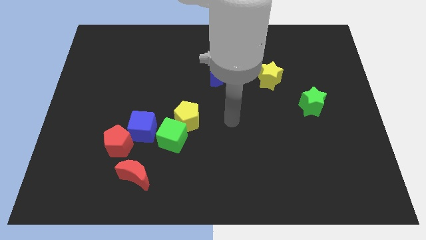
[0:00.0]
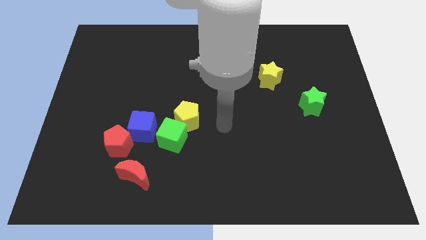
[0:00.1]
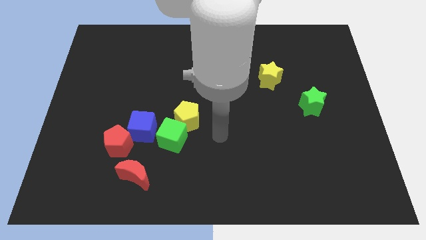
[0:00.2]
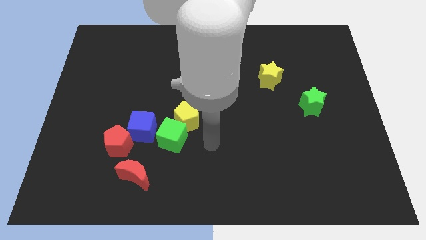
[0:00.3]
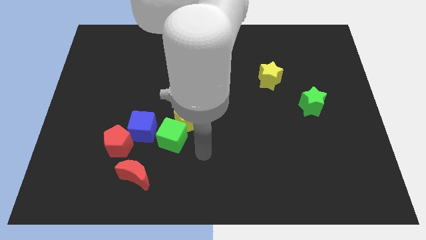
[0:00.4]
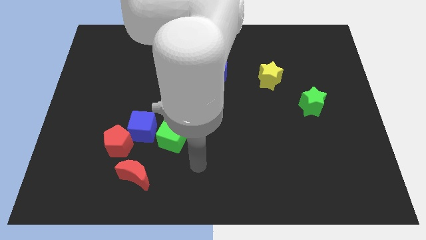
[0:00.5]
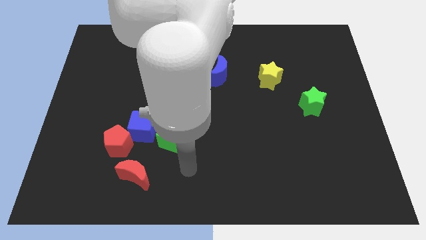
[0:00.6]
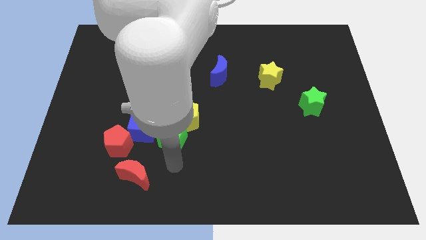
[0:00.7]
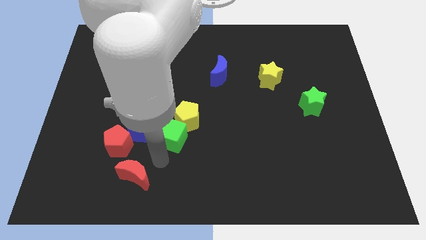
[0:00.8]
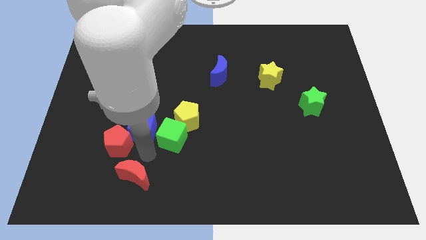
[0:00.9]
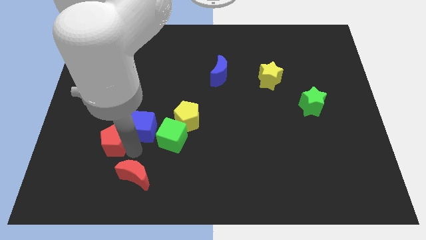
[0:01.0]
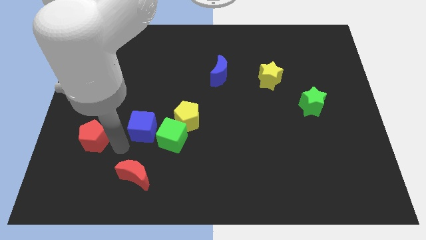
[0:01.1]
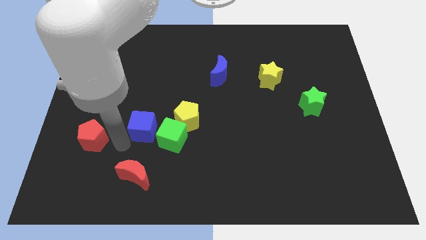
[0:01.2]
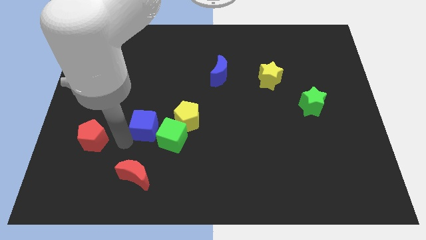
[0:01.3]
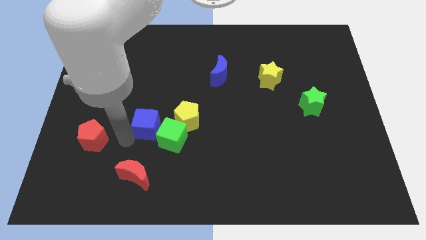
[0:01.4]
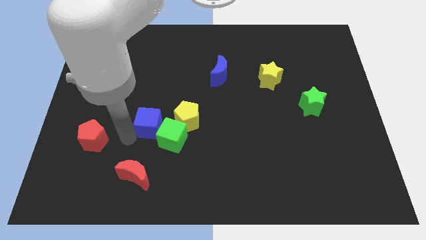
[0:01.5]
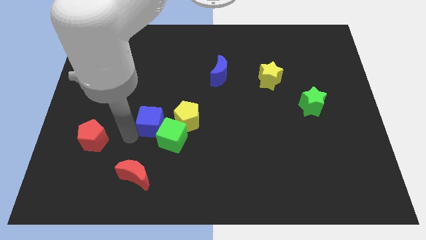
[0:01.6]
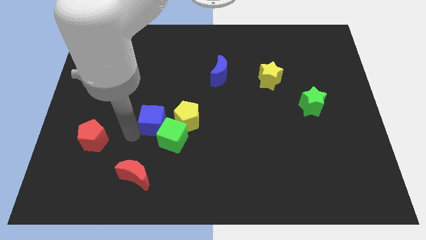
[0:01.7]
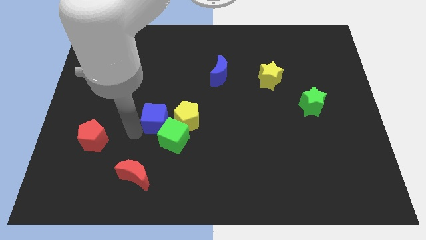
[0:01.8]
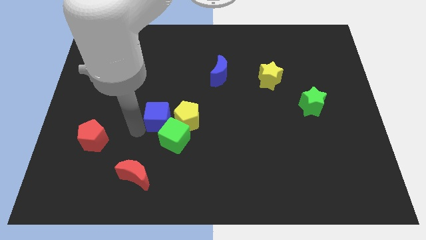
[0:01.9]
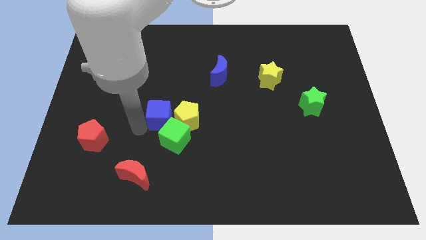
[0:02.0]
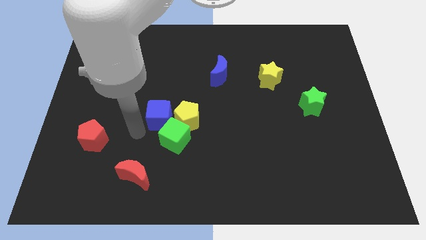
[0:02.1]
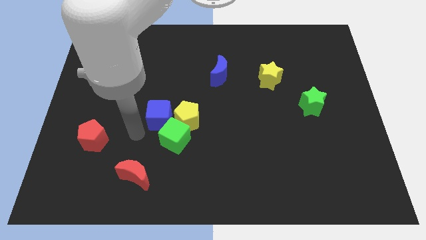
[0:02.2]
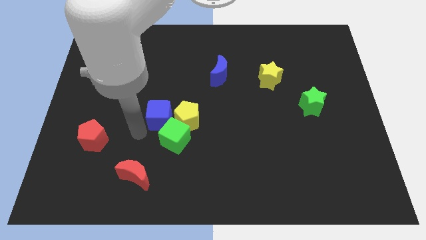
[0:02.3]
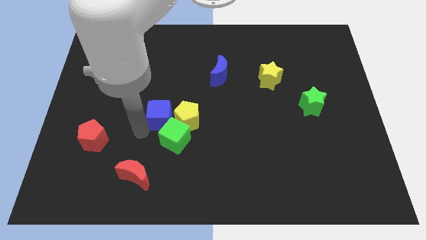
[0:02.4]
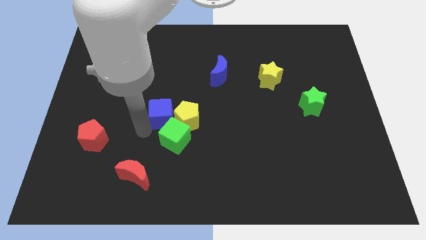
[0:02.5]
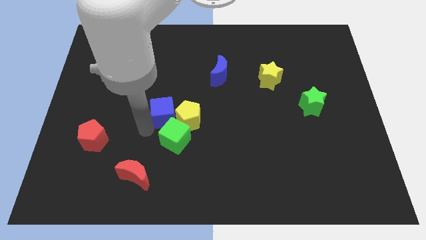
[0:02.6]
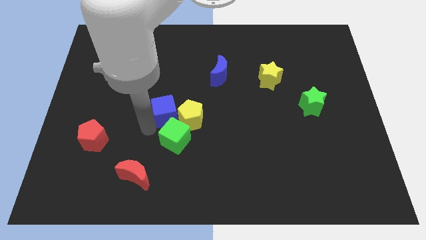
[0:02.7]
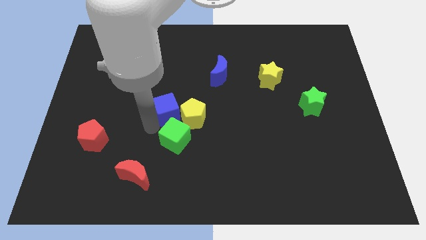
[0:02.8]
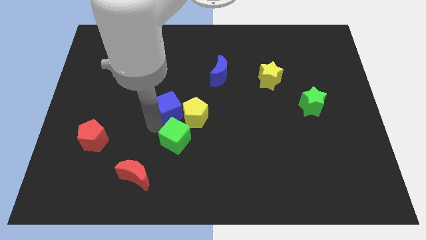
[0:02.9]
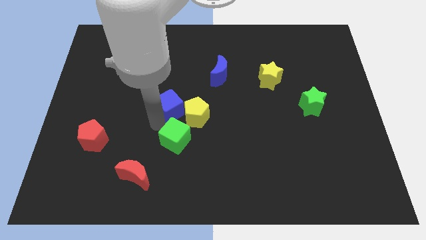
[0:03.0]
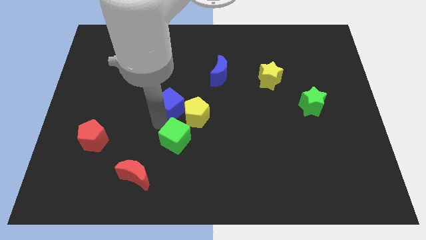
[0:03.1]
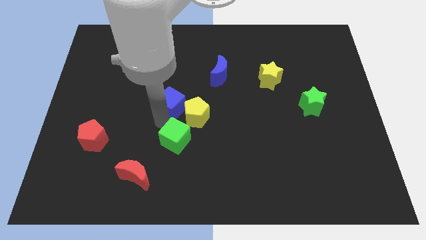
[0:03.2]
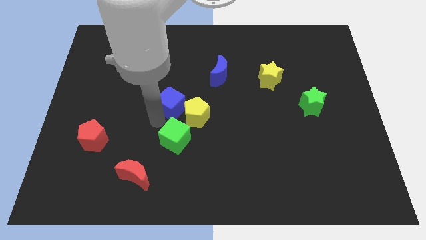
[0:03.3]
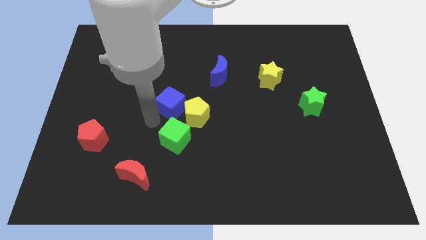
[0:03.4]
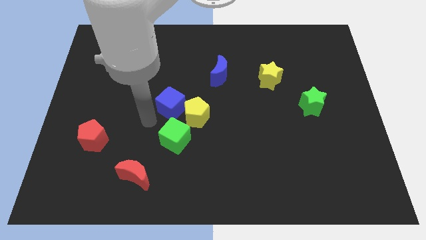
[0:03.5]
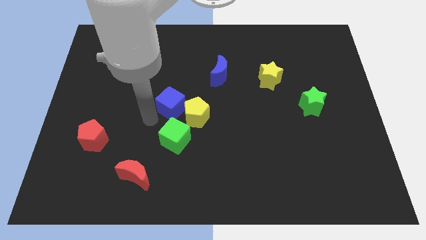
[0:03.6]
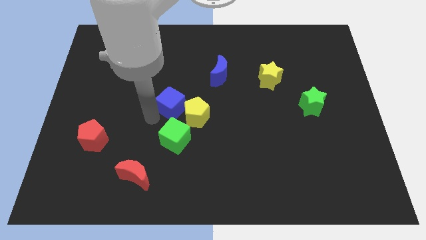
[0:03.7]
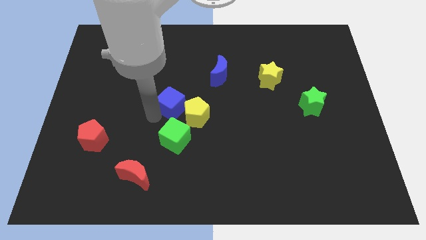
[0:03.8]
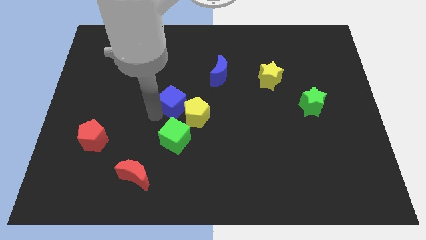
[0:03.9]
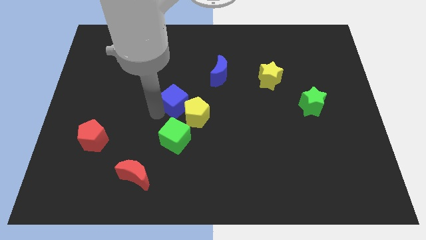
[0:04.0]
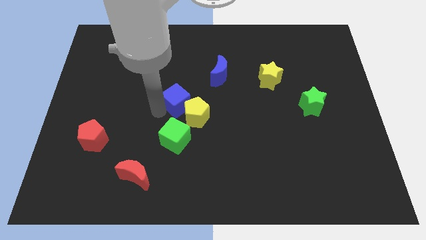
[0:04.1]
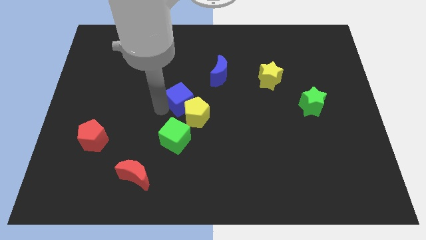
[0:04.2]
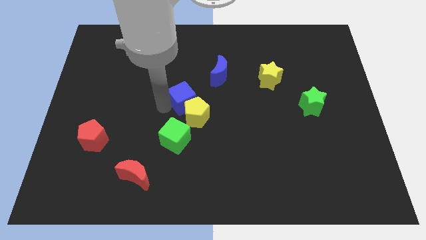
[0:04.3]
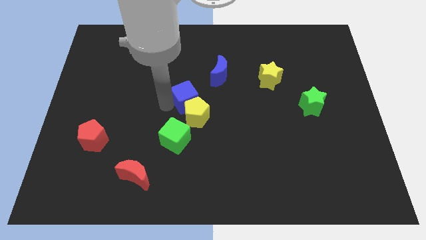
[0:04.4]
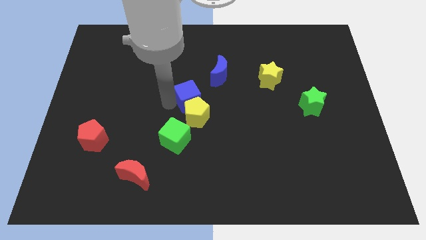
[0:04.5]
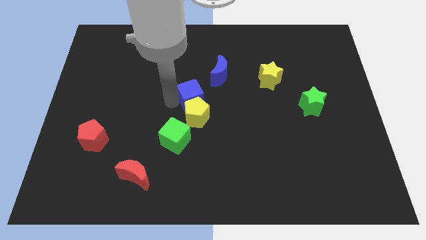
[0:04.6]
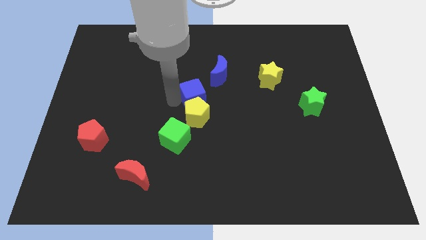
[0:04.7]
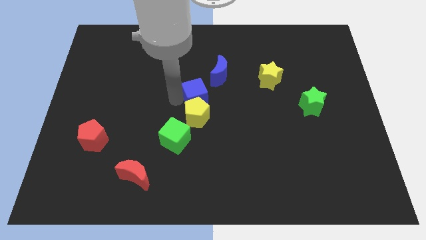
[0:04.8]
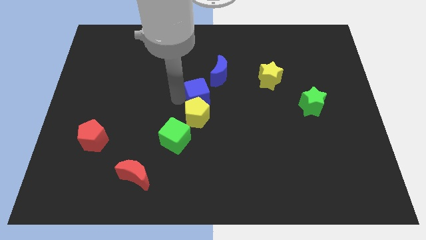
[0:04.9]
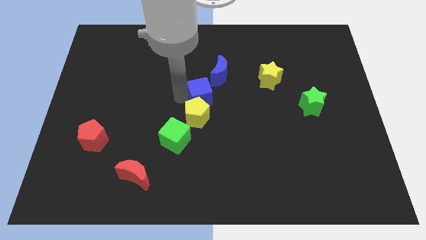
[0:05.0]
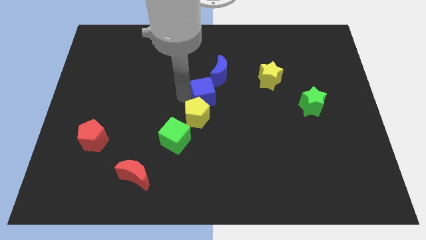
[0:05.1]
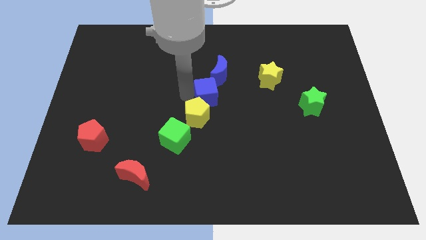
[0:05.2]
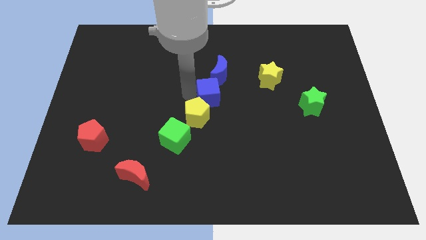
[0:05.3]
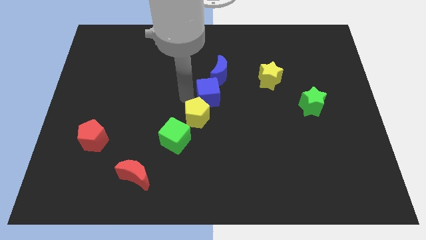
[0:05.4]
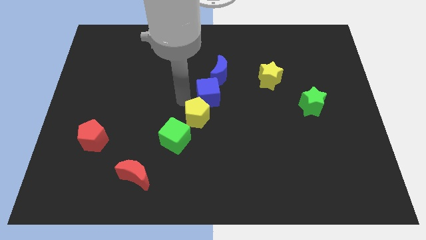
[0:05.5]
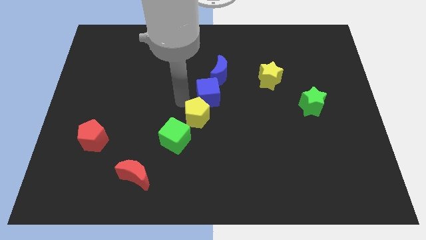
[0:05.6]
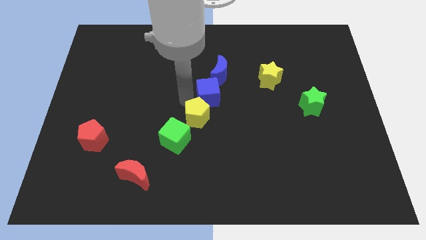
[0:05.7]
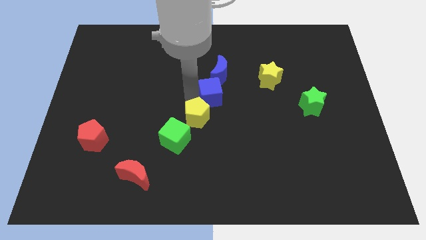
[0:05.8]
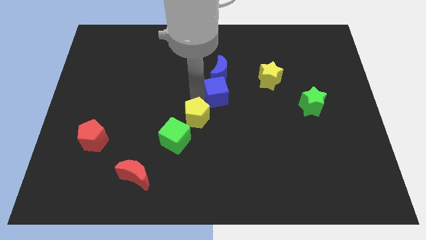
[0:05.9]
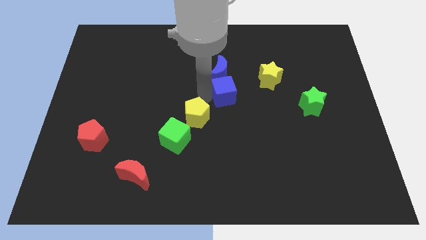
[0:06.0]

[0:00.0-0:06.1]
push the blue cube to the bottom right of the blue moon

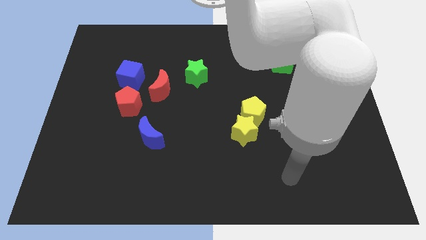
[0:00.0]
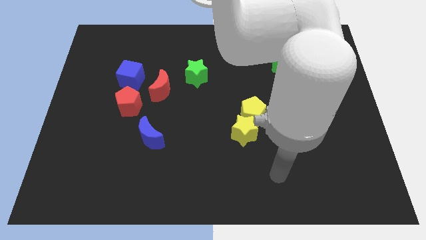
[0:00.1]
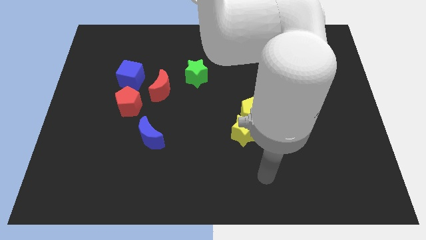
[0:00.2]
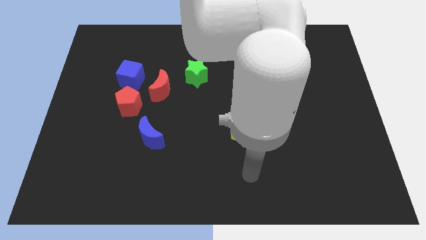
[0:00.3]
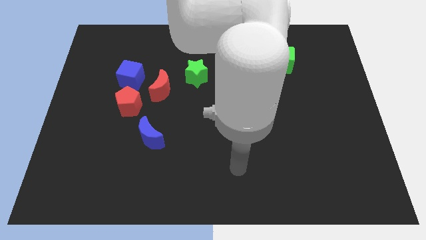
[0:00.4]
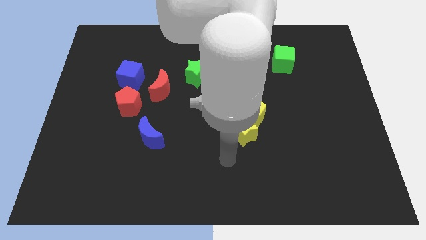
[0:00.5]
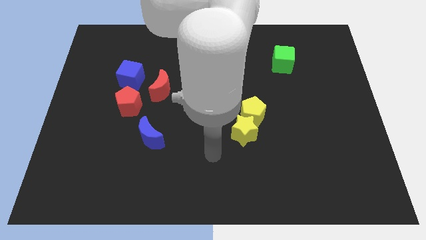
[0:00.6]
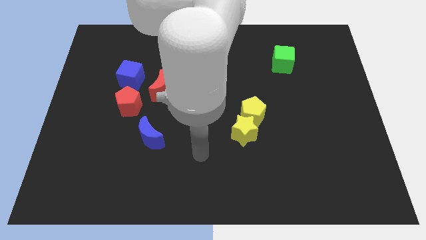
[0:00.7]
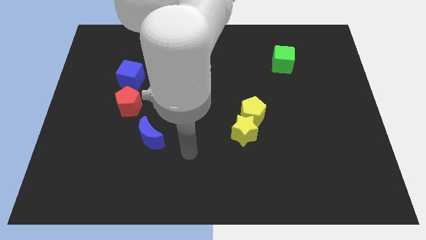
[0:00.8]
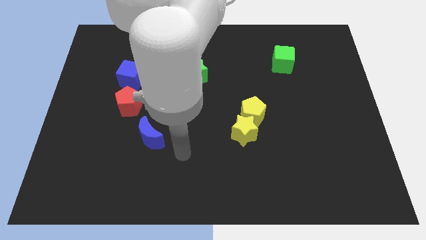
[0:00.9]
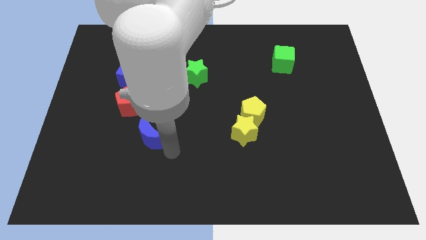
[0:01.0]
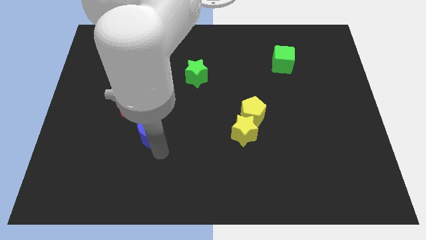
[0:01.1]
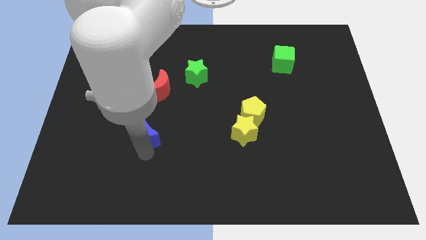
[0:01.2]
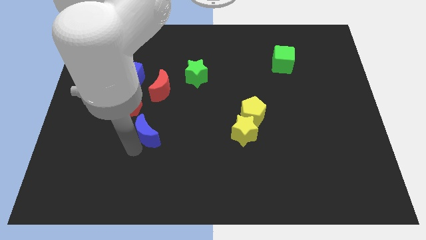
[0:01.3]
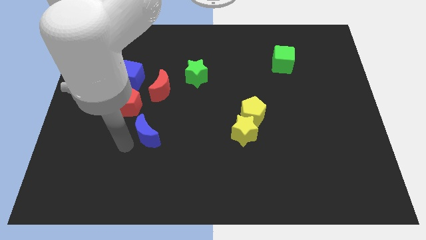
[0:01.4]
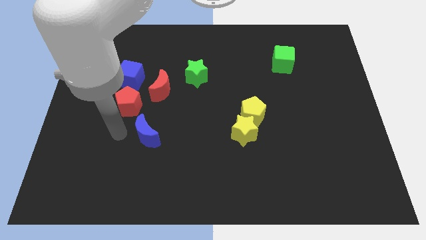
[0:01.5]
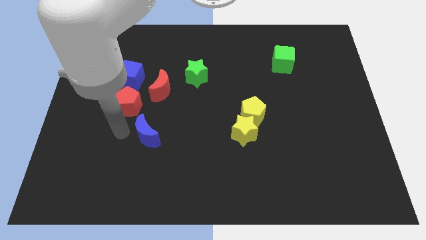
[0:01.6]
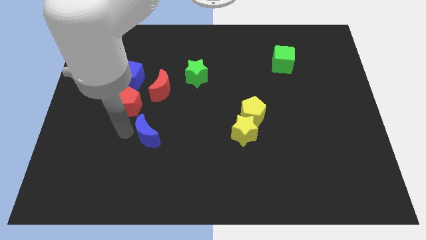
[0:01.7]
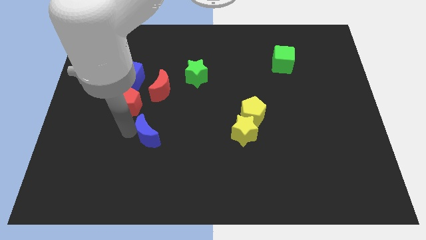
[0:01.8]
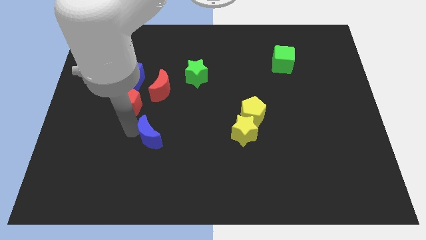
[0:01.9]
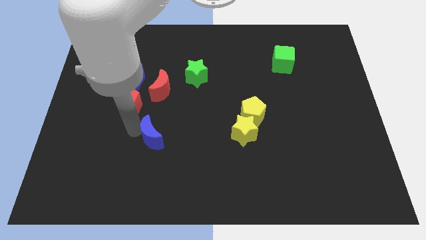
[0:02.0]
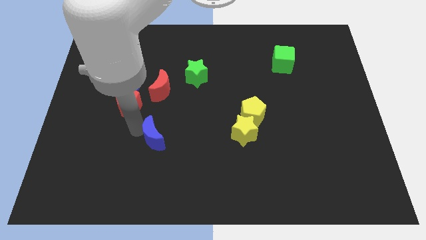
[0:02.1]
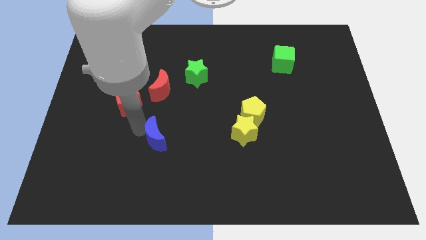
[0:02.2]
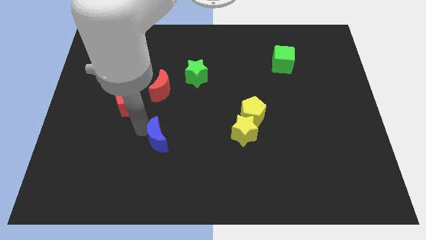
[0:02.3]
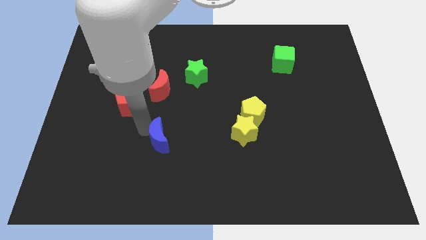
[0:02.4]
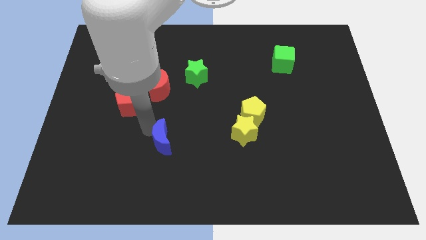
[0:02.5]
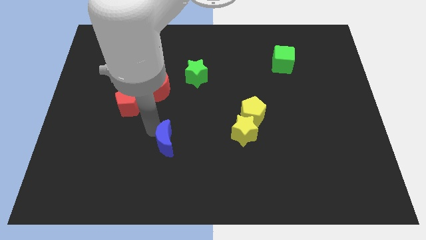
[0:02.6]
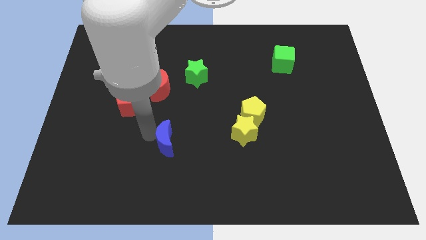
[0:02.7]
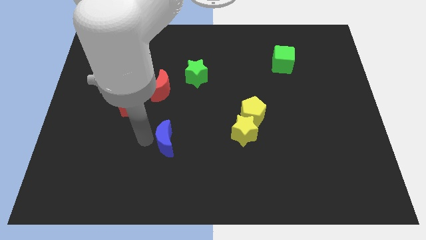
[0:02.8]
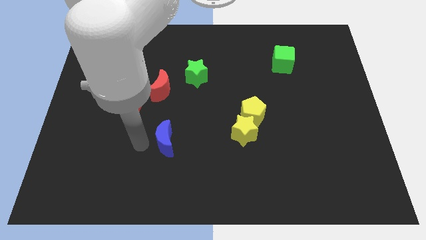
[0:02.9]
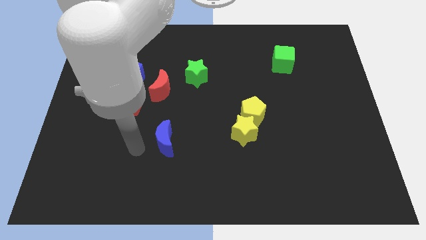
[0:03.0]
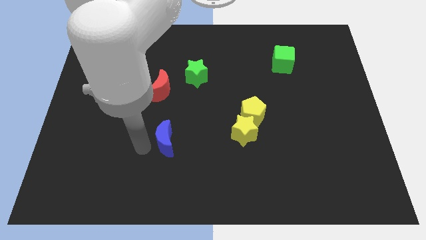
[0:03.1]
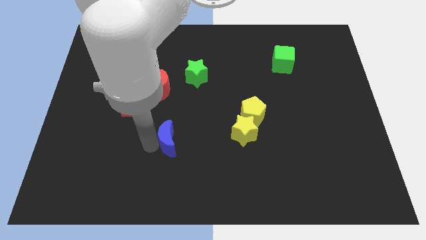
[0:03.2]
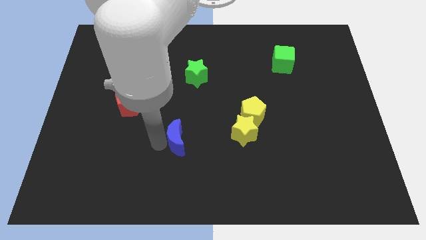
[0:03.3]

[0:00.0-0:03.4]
put the blue moon to the left of the yellow star
